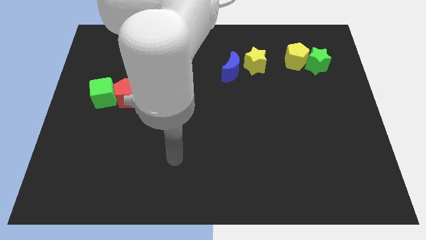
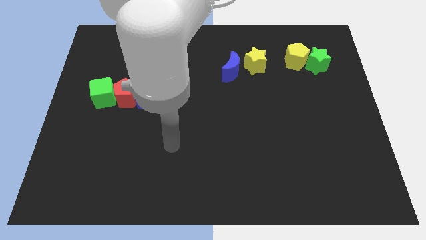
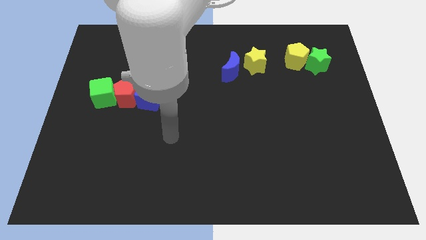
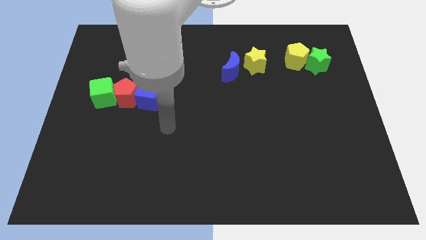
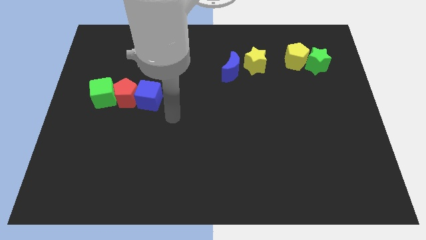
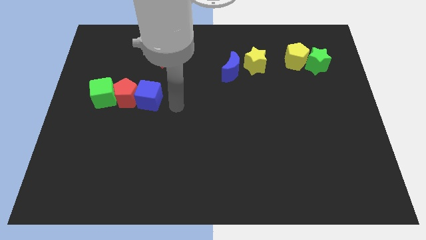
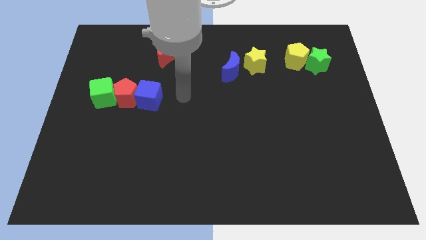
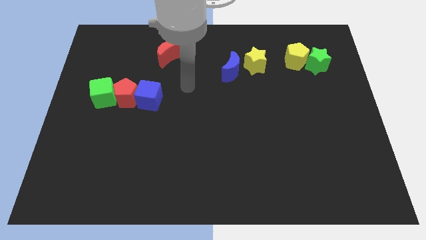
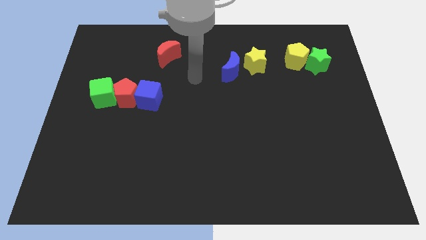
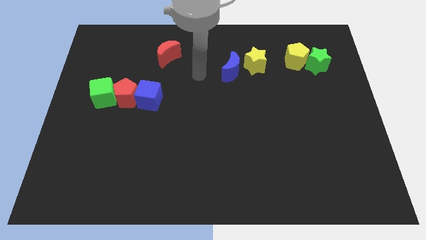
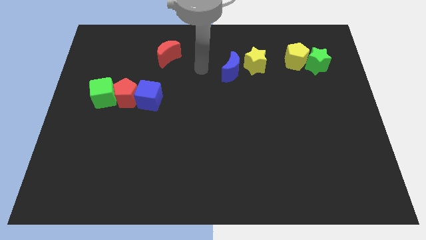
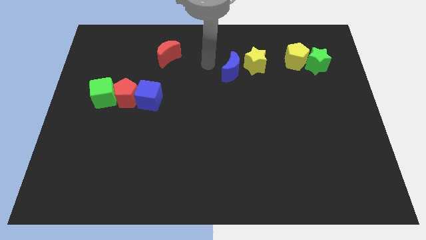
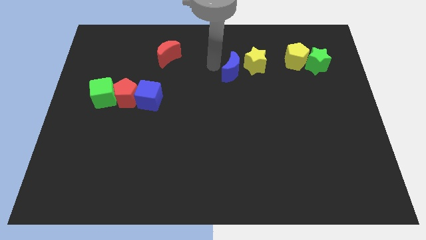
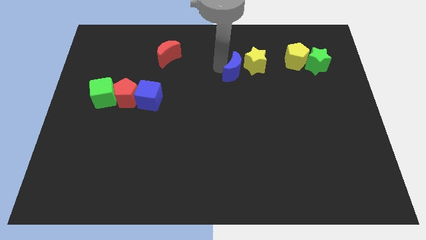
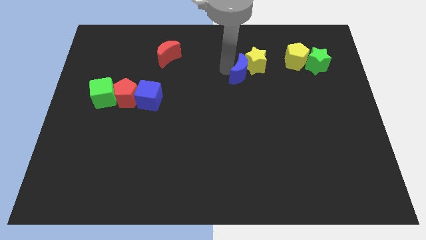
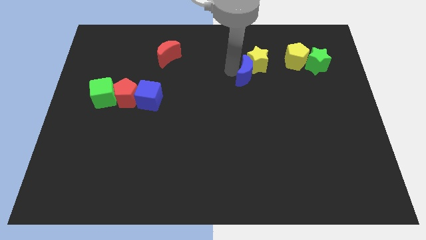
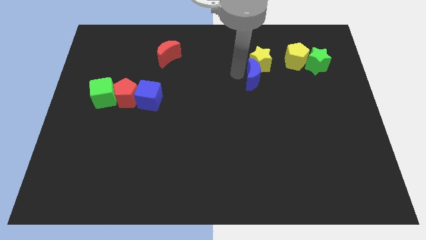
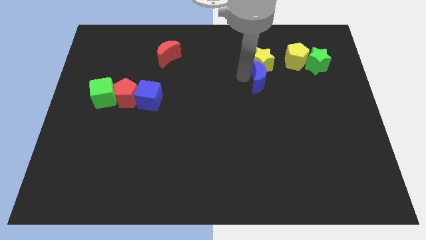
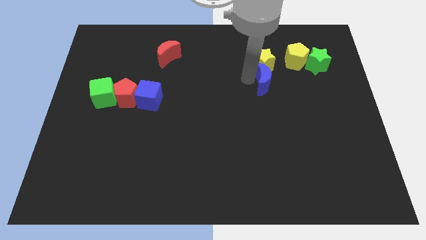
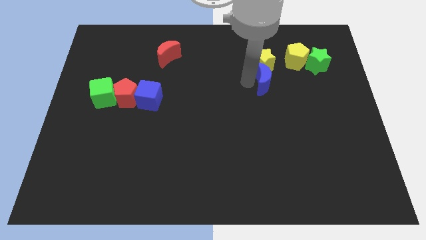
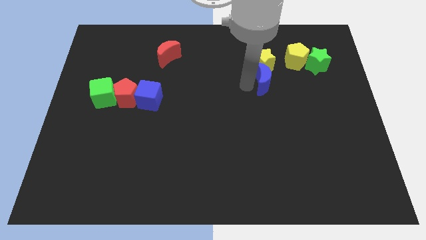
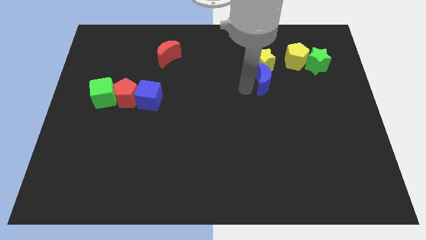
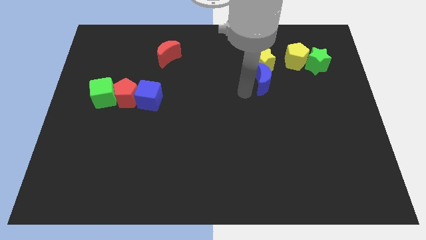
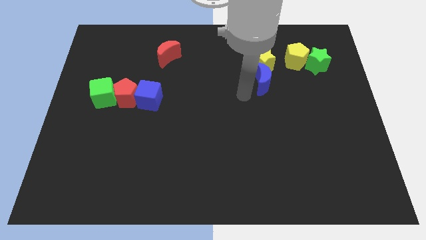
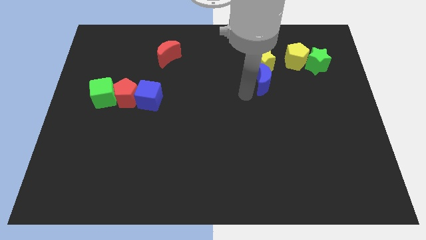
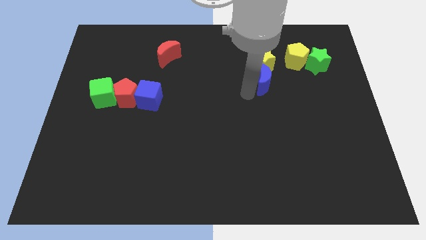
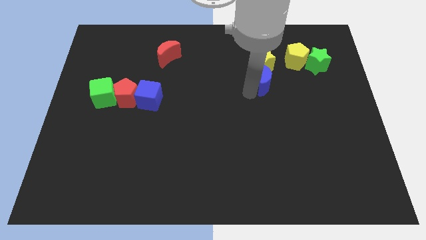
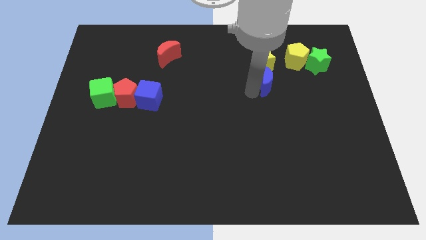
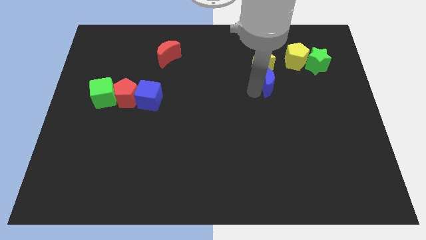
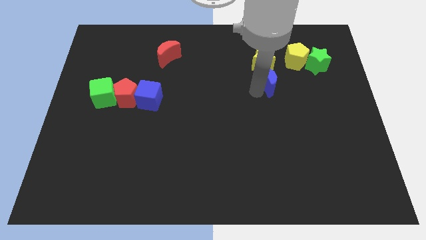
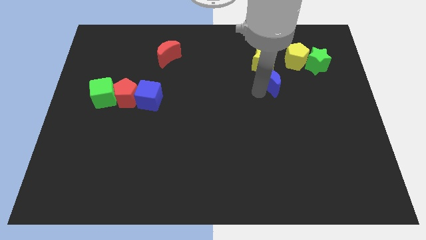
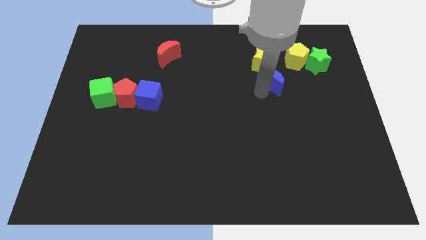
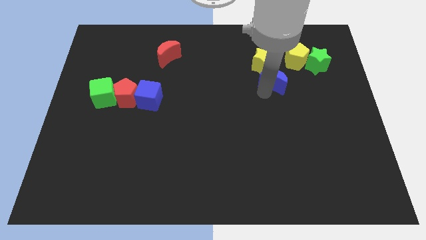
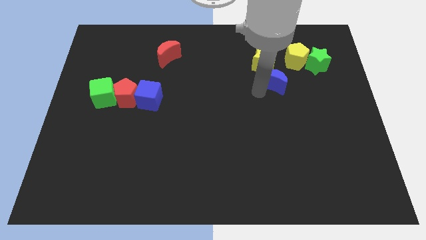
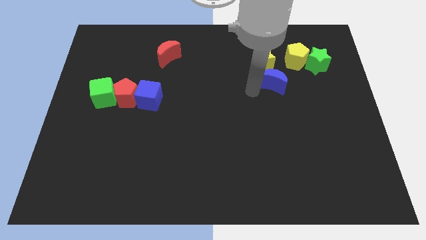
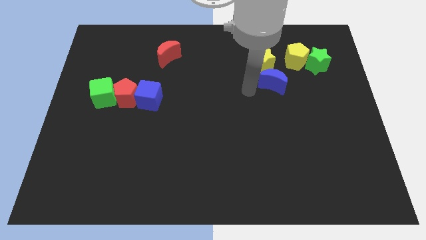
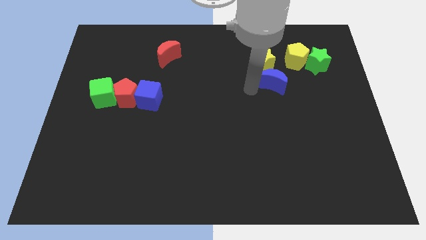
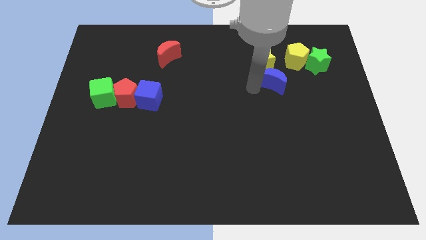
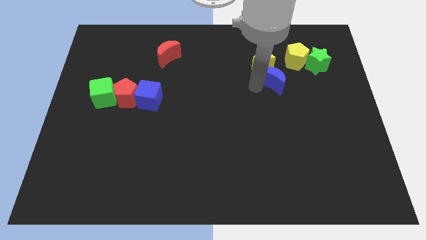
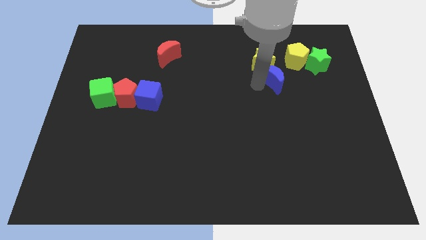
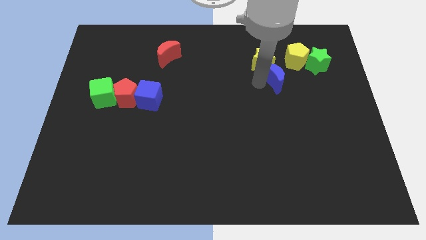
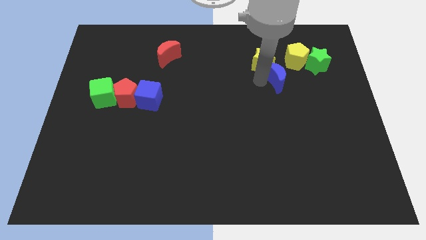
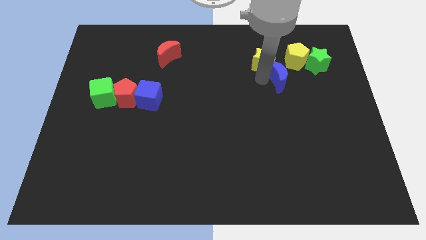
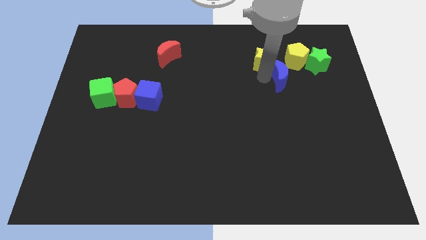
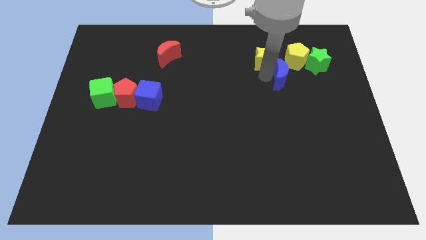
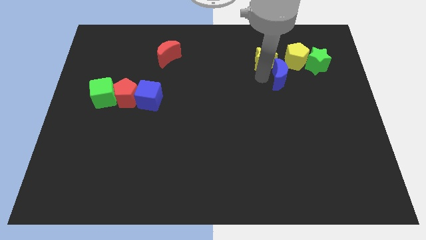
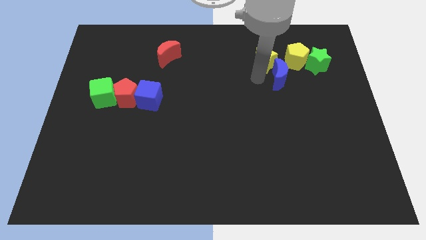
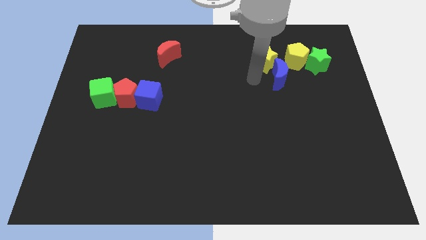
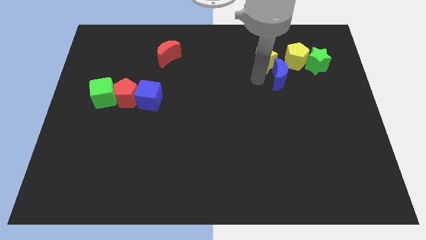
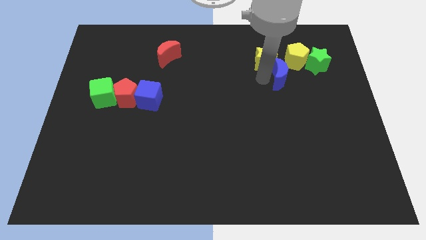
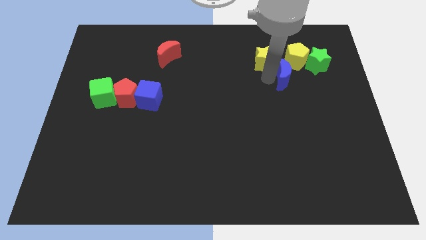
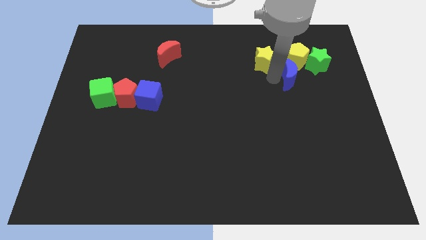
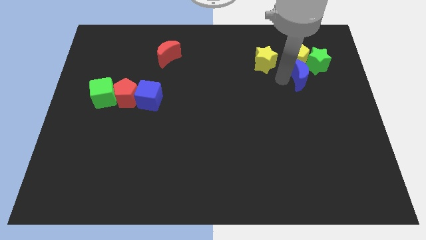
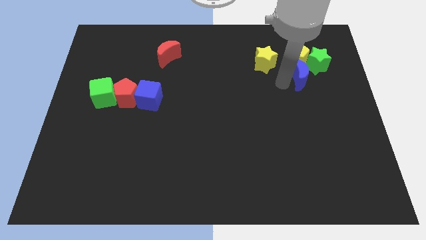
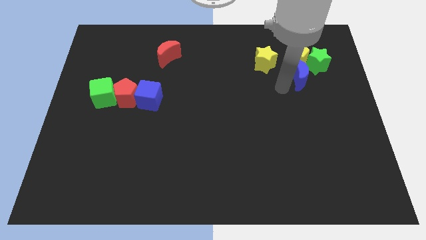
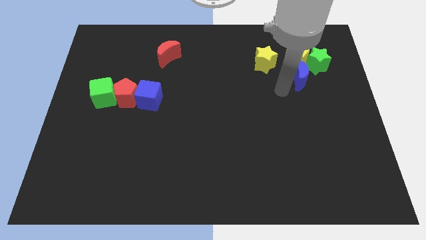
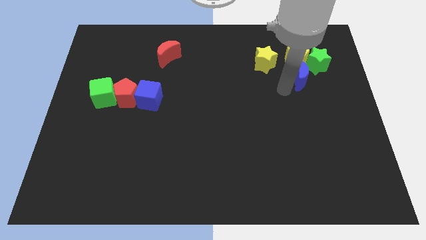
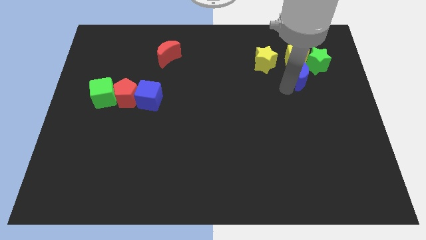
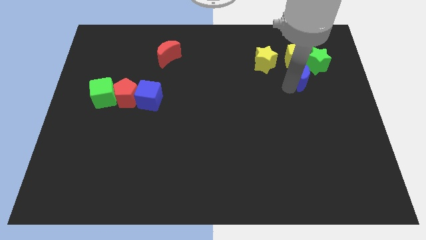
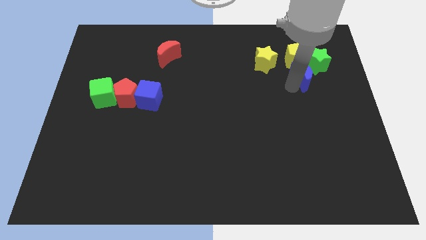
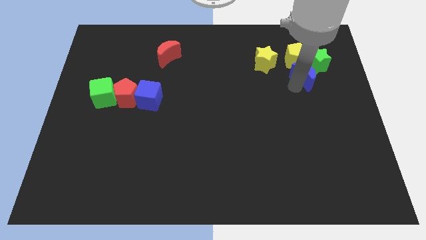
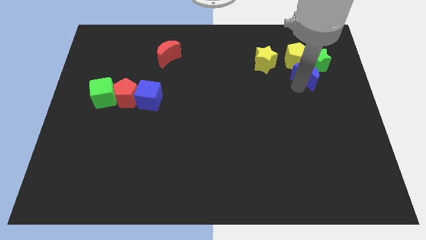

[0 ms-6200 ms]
move the blue moon close to the green star

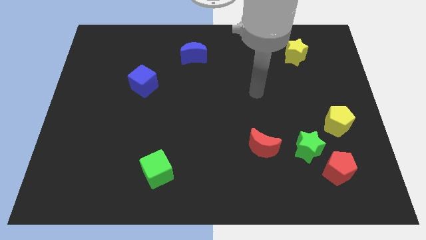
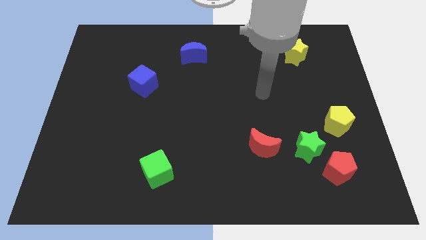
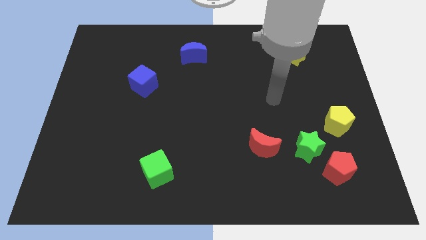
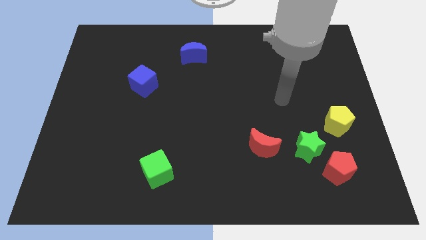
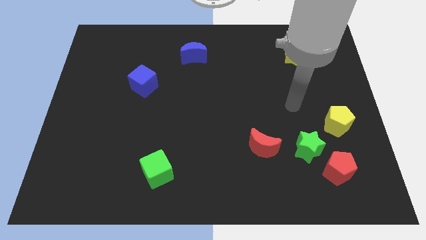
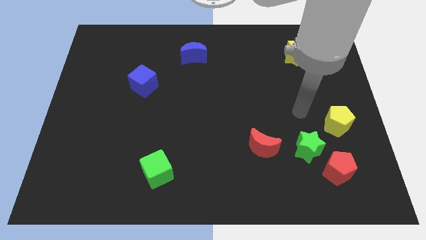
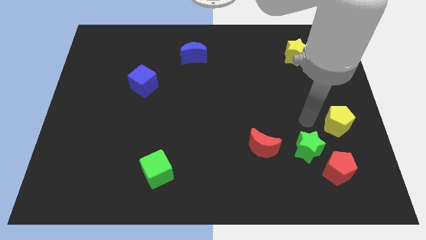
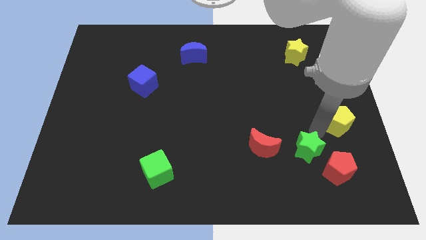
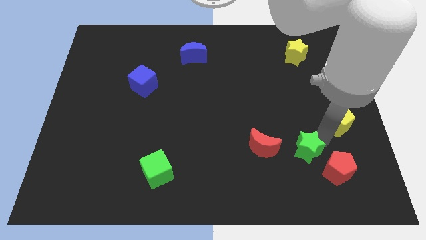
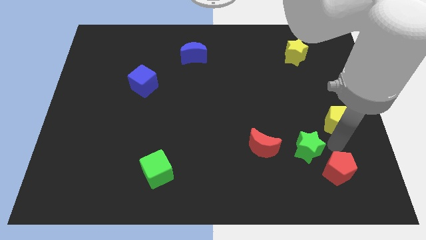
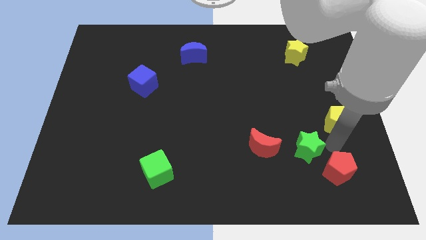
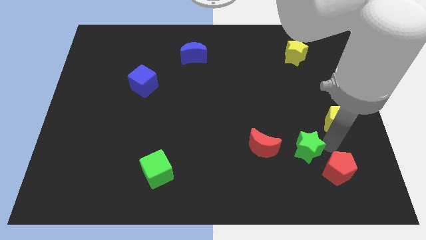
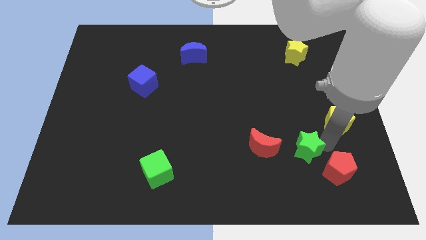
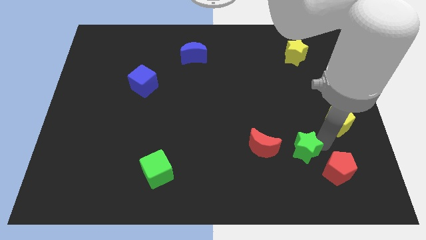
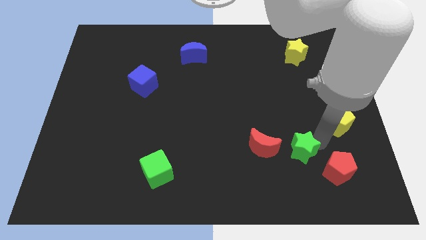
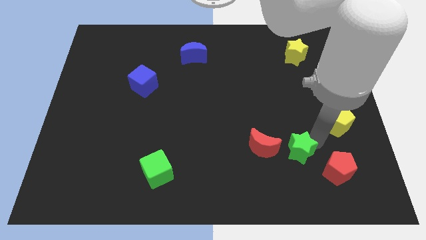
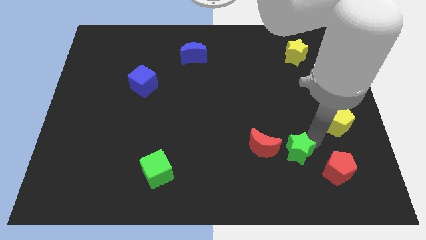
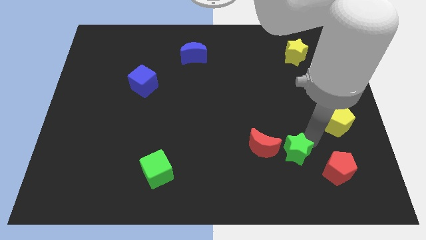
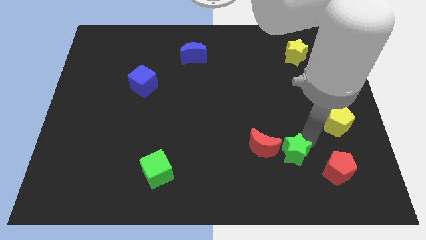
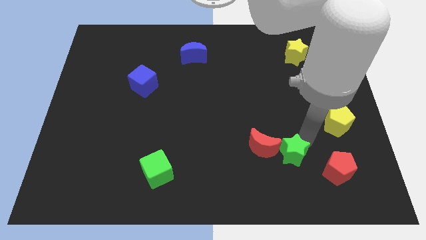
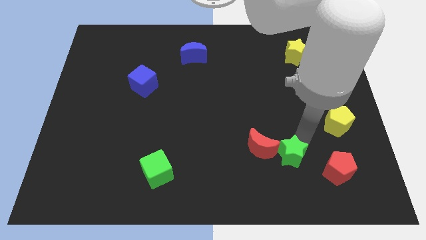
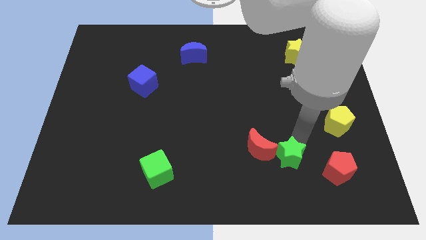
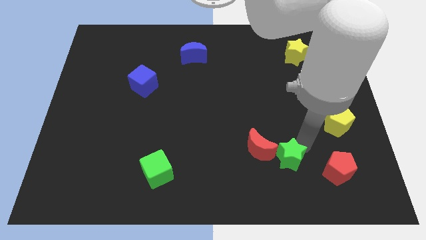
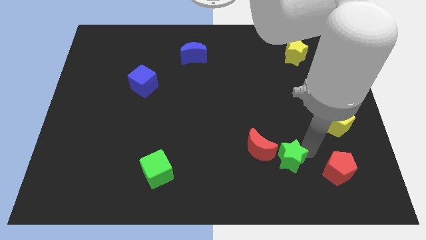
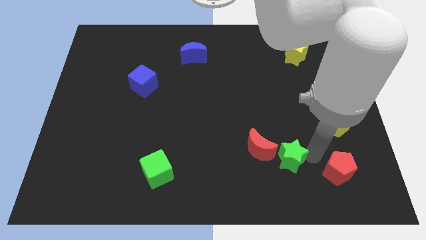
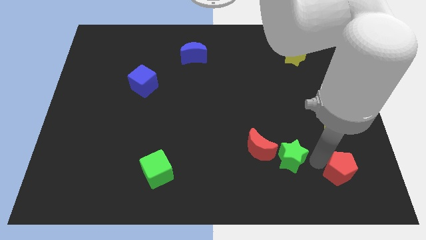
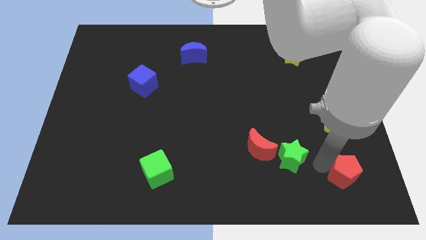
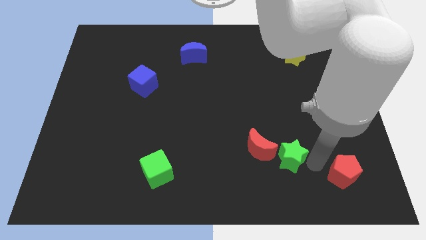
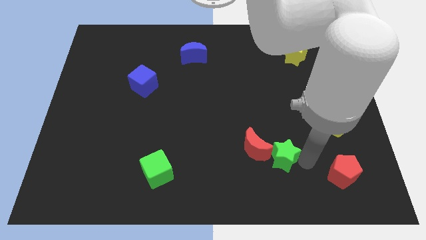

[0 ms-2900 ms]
push the green star to the red moon
